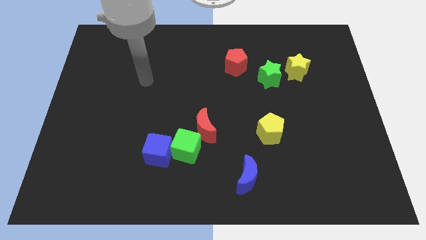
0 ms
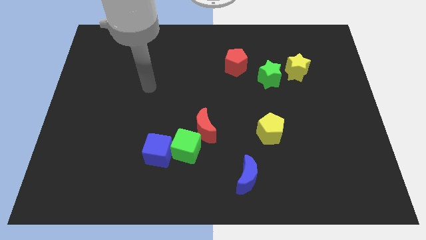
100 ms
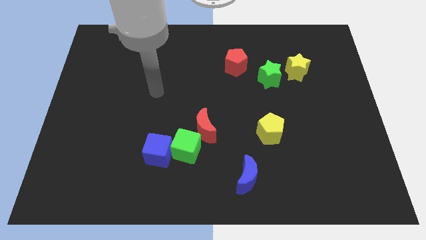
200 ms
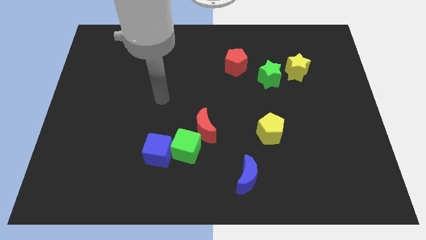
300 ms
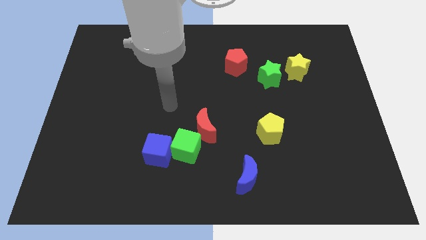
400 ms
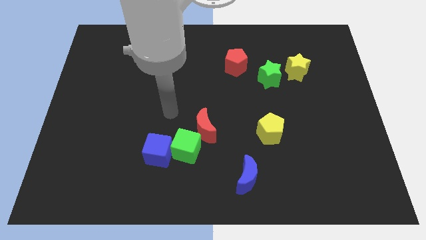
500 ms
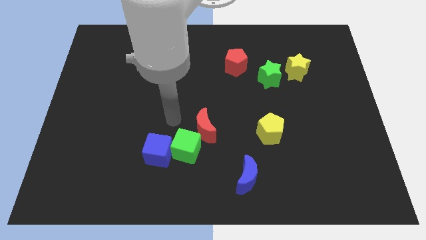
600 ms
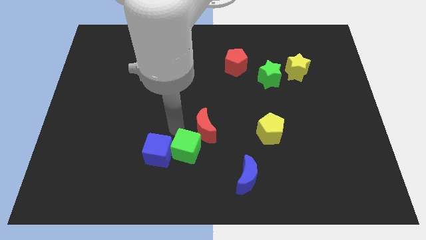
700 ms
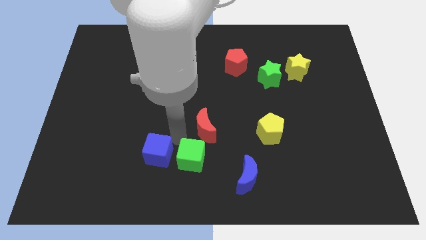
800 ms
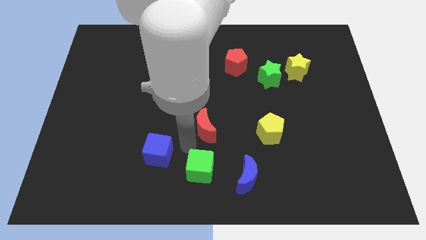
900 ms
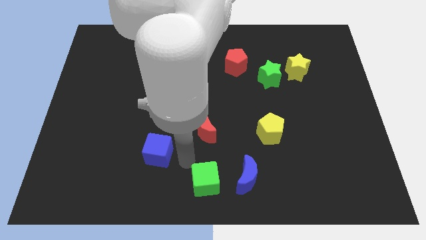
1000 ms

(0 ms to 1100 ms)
pull the blue cube apart from the green cube

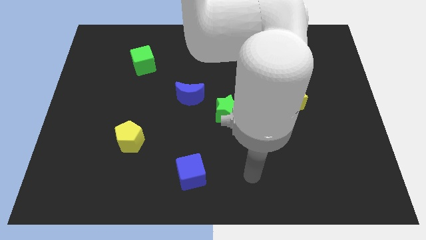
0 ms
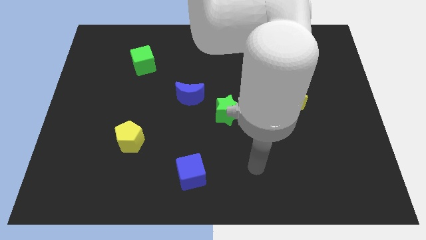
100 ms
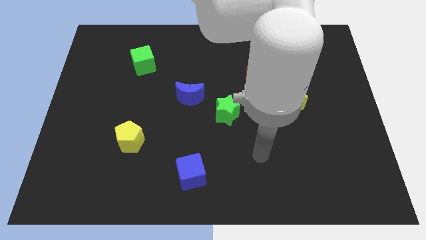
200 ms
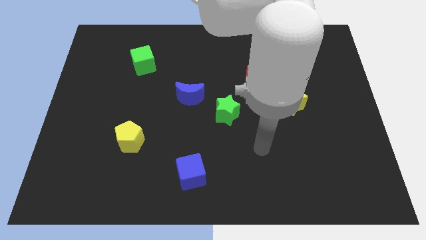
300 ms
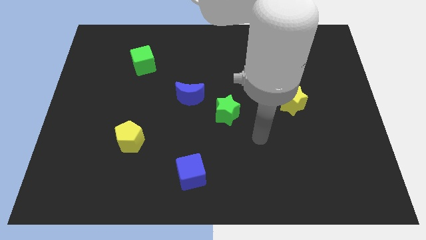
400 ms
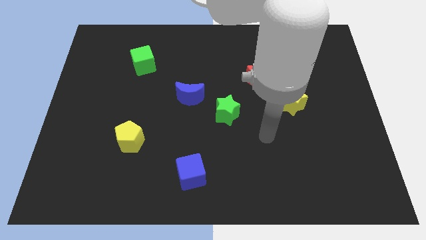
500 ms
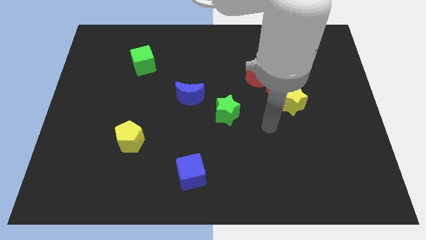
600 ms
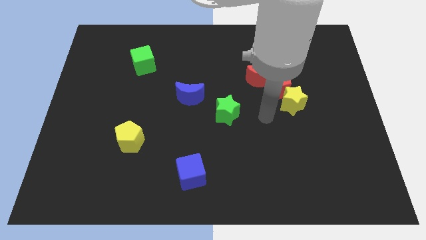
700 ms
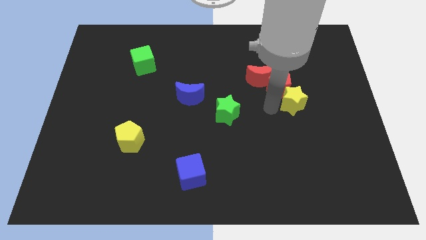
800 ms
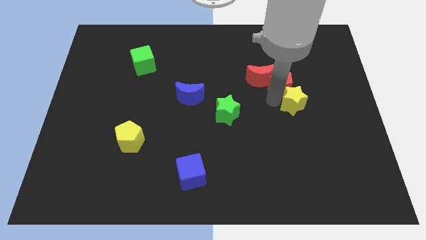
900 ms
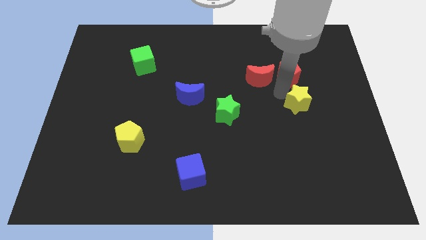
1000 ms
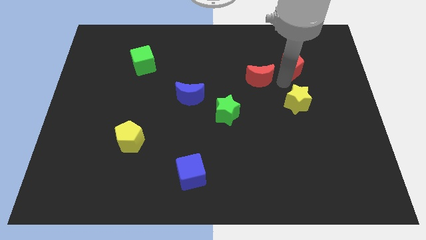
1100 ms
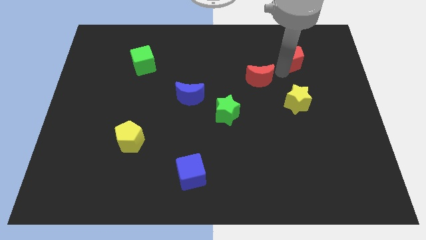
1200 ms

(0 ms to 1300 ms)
separate the red moon from the red pentagon

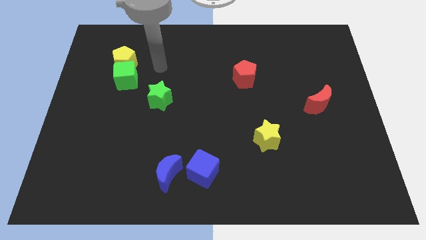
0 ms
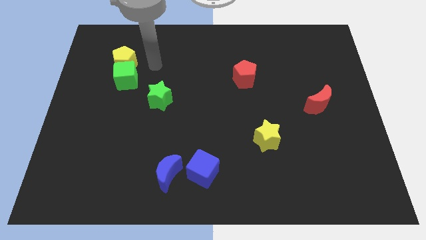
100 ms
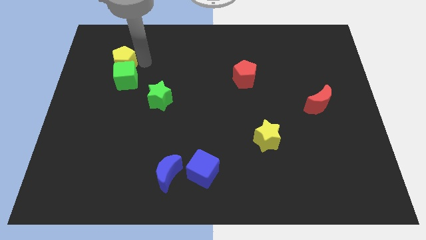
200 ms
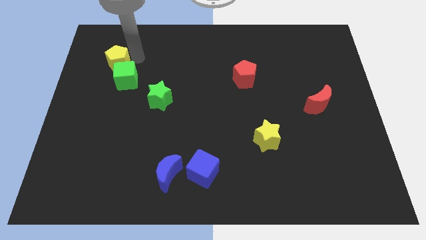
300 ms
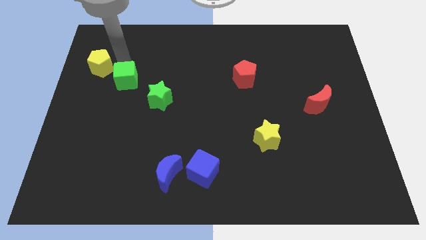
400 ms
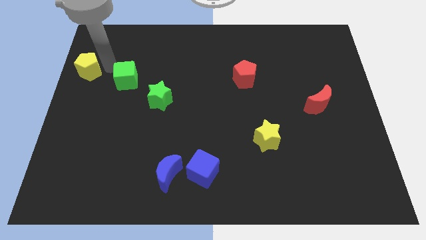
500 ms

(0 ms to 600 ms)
pull the green cube apart from the yellow pentagon

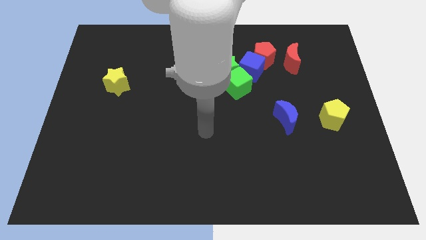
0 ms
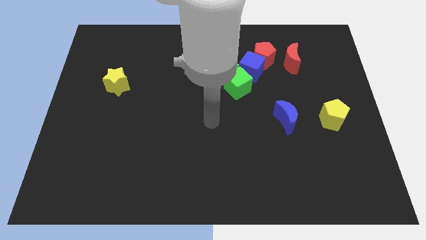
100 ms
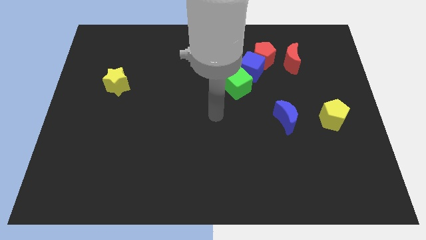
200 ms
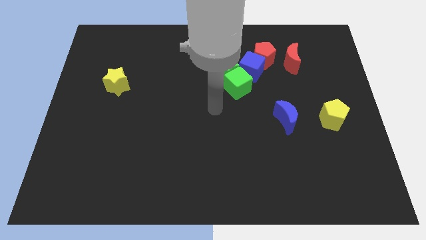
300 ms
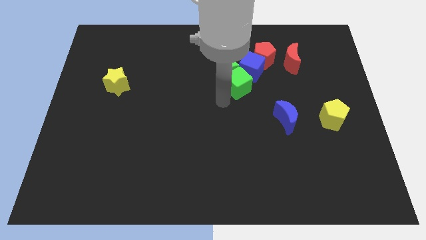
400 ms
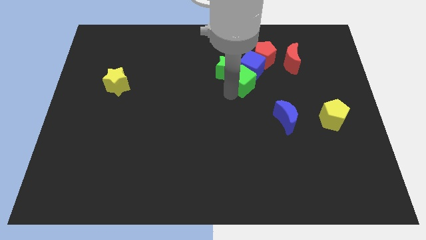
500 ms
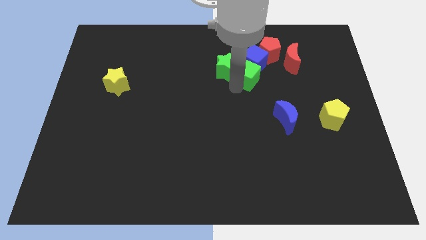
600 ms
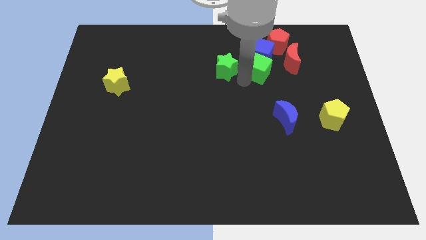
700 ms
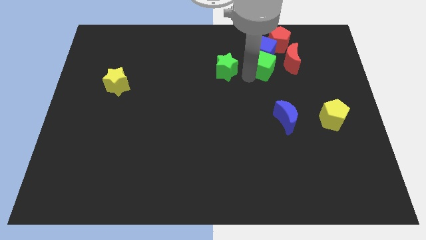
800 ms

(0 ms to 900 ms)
move the green star away from the green cube and blue cube

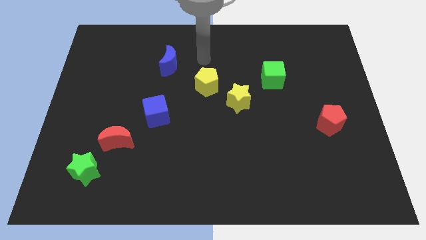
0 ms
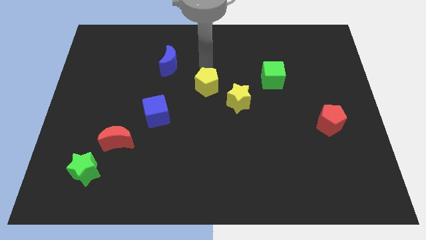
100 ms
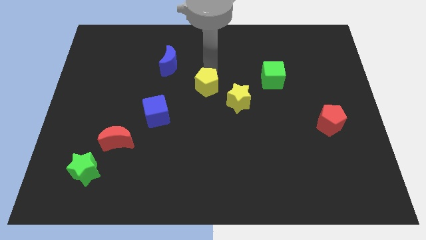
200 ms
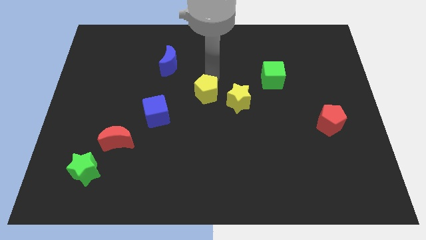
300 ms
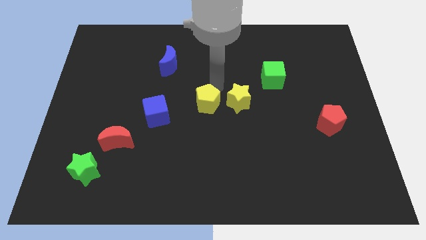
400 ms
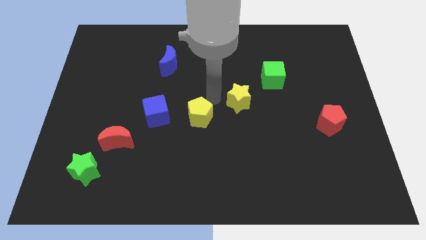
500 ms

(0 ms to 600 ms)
move the yellow star away from the yellow pentagon

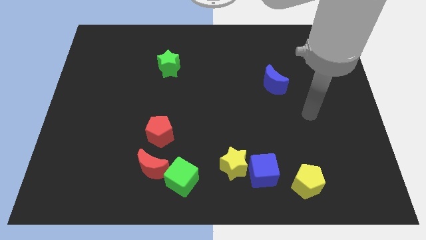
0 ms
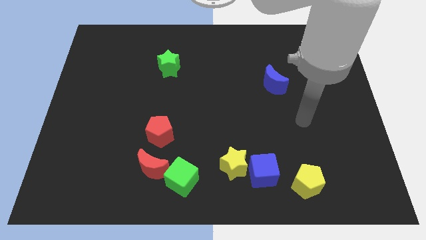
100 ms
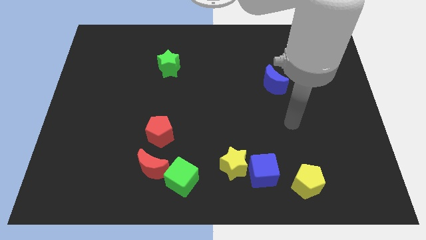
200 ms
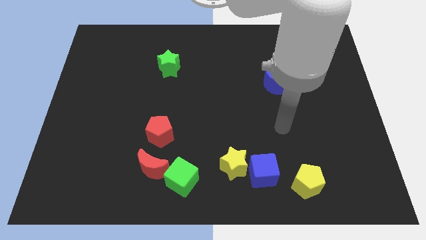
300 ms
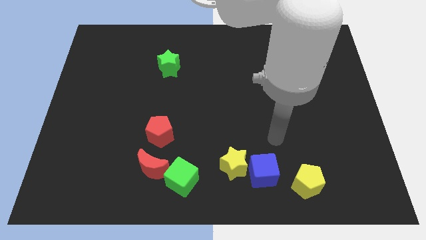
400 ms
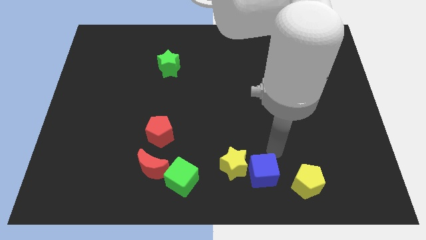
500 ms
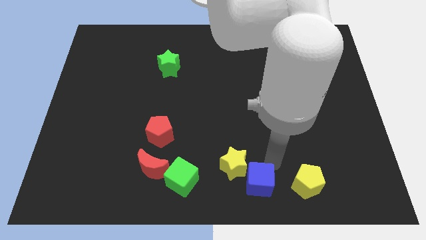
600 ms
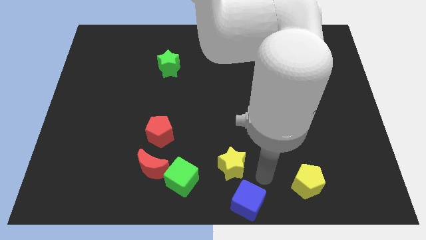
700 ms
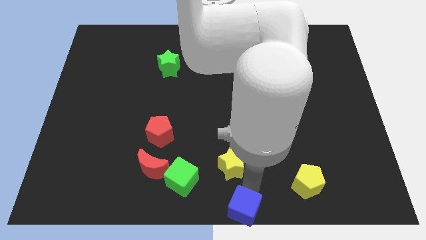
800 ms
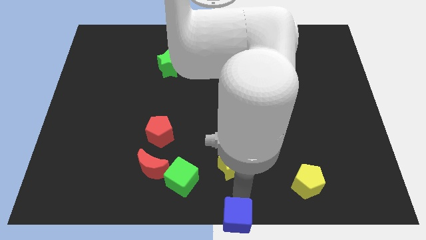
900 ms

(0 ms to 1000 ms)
separate the yellow star from the blue cube

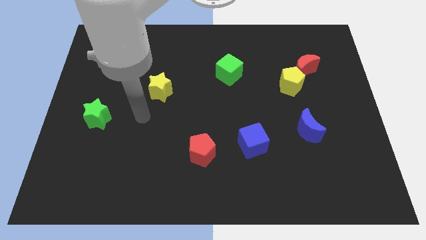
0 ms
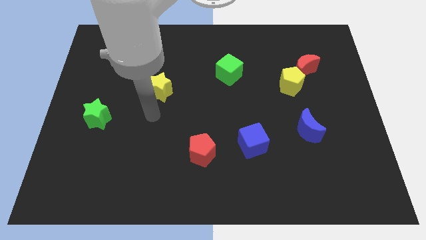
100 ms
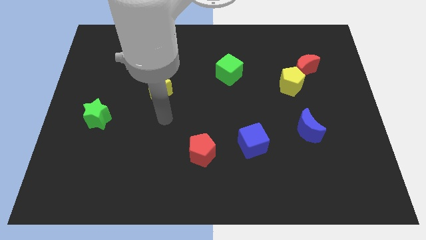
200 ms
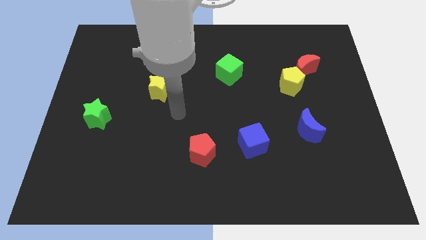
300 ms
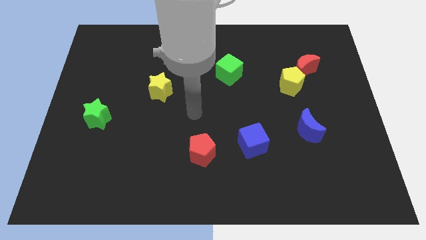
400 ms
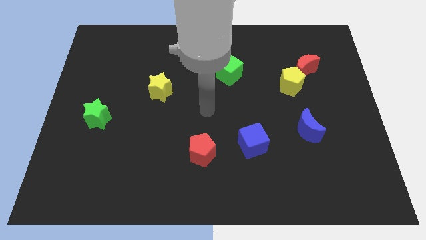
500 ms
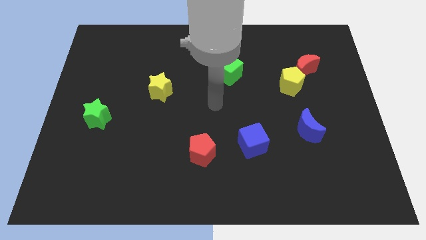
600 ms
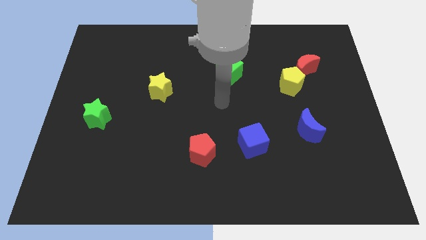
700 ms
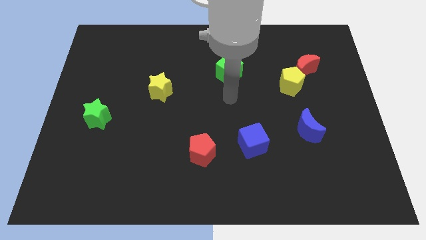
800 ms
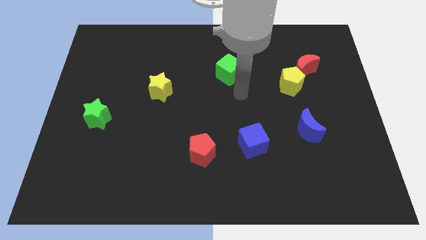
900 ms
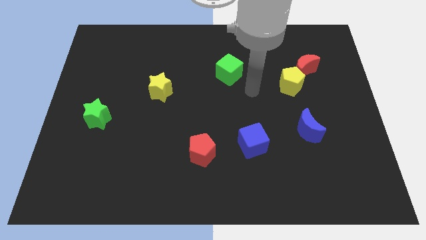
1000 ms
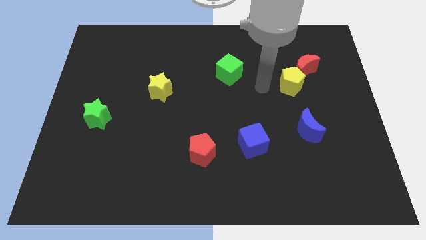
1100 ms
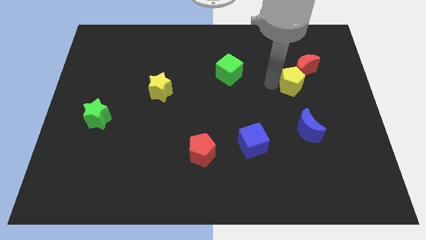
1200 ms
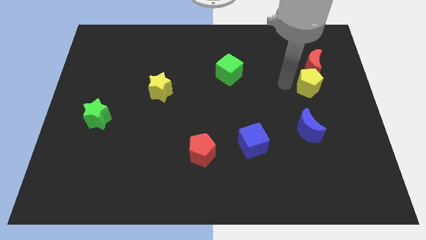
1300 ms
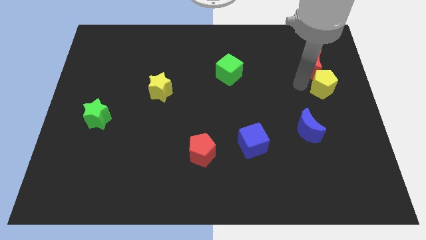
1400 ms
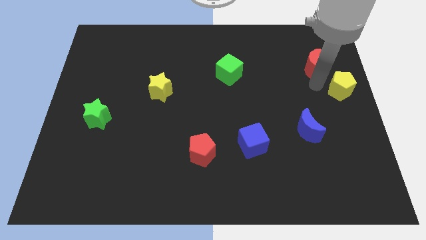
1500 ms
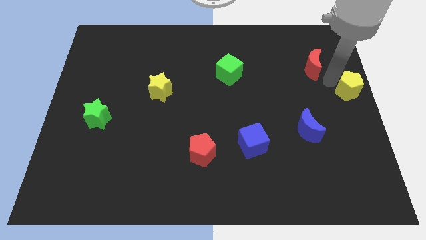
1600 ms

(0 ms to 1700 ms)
separate the red moon from the yellow pentagon

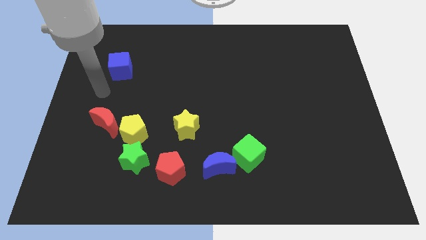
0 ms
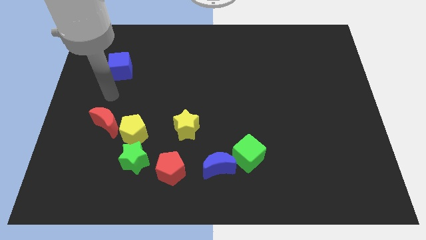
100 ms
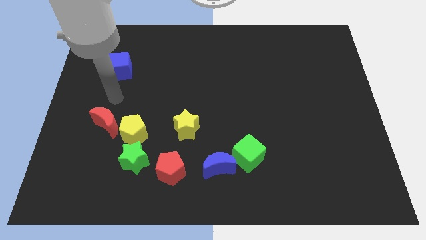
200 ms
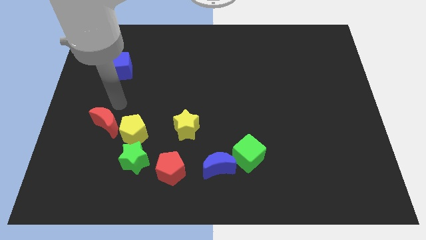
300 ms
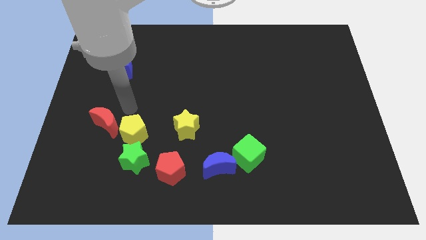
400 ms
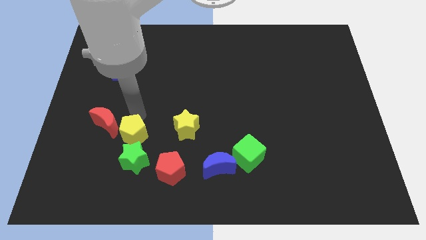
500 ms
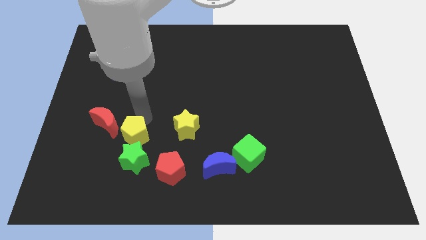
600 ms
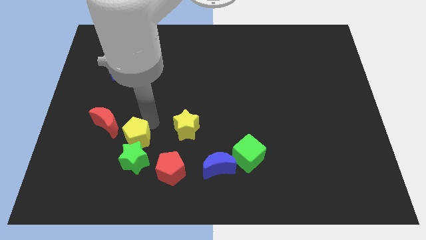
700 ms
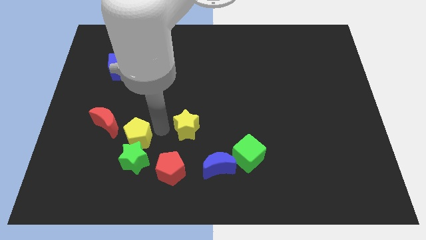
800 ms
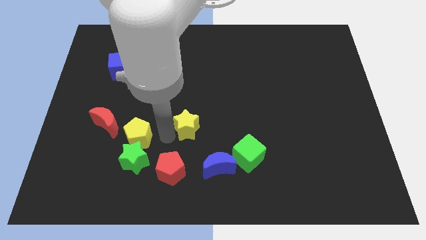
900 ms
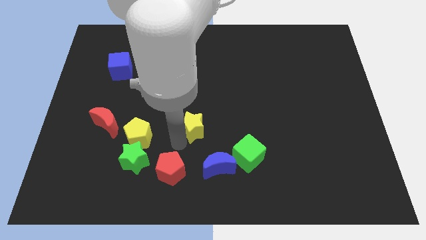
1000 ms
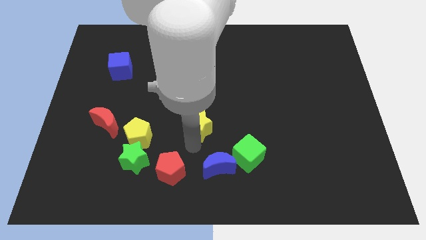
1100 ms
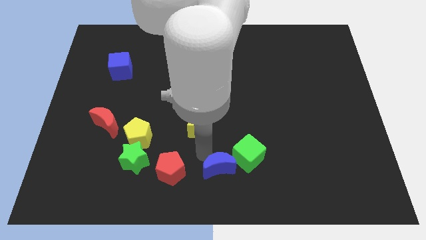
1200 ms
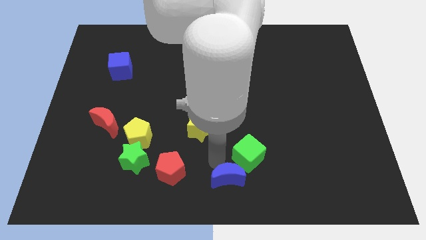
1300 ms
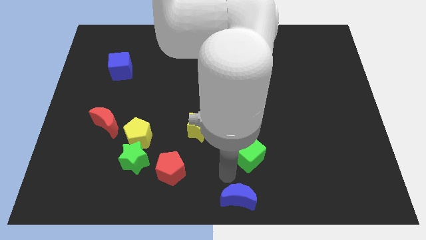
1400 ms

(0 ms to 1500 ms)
separate the green cube from the blue moon

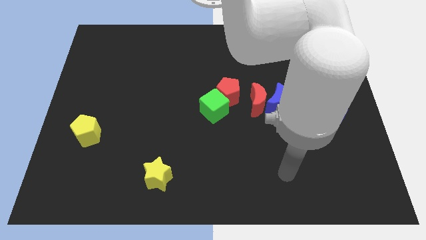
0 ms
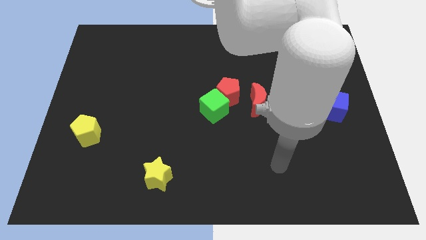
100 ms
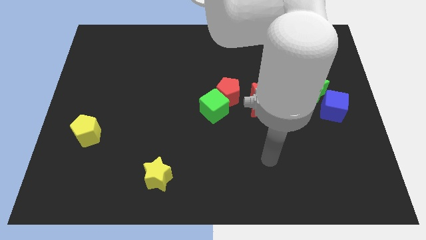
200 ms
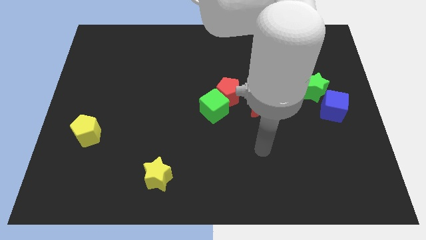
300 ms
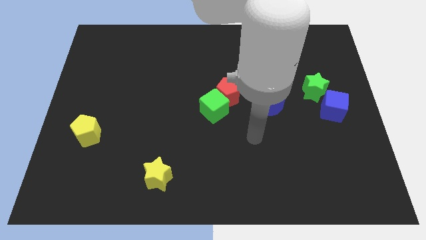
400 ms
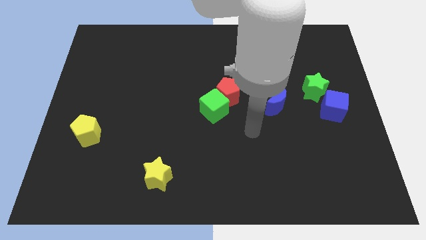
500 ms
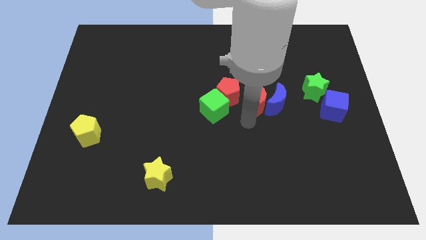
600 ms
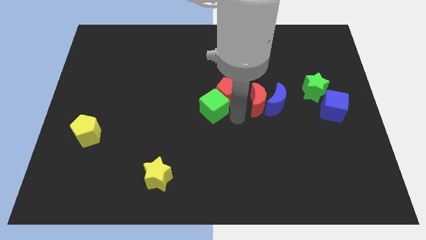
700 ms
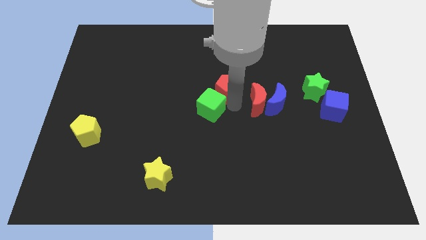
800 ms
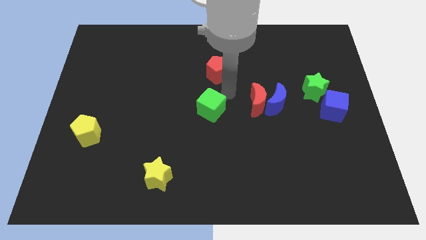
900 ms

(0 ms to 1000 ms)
move the green cube away from the red pentagon
